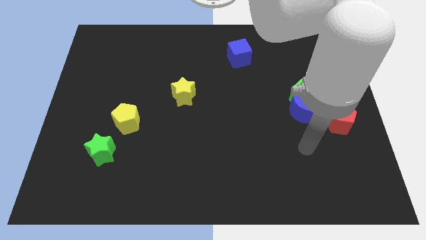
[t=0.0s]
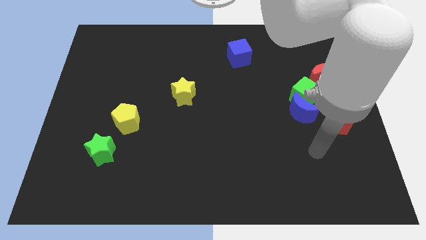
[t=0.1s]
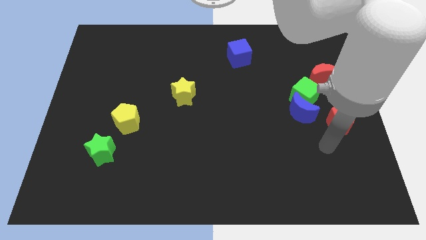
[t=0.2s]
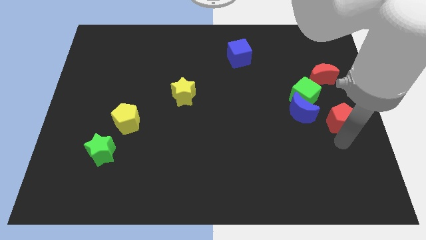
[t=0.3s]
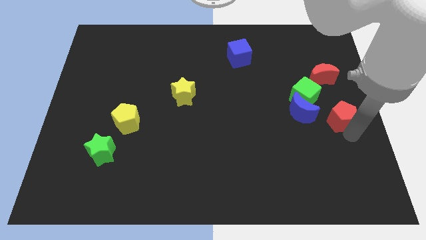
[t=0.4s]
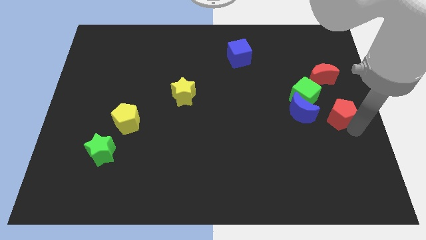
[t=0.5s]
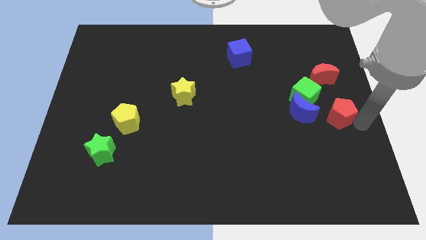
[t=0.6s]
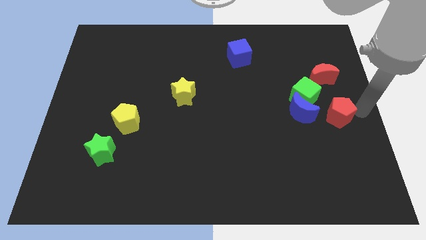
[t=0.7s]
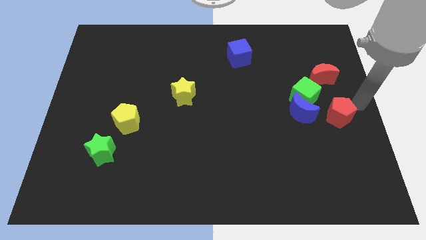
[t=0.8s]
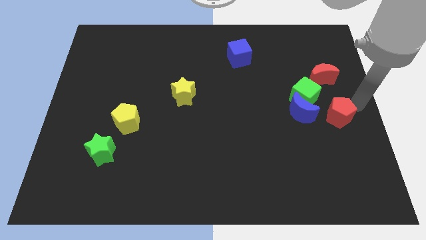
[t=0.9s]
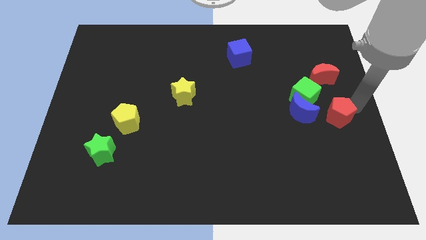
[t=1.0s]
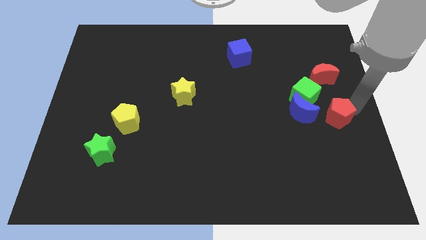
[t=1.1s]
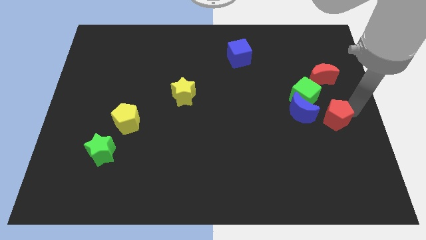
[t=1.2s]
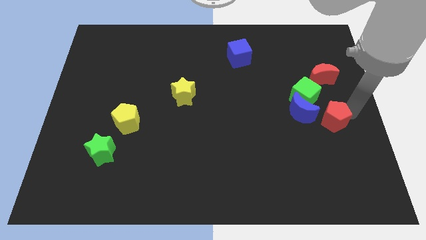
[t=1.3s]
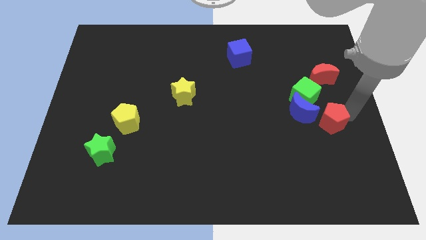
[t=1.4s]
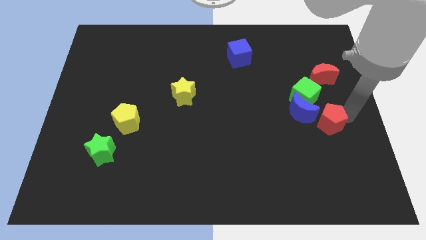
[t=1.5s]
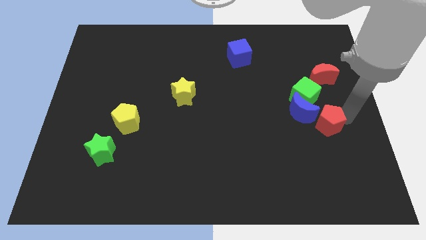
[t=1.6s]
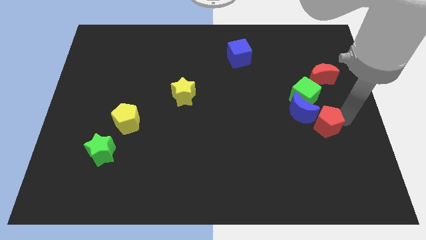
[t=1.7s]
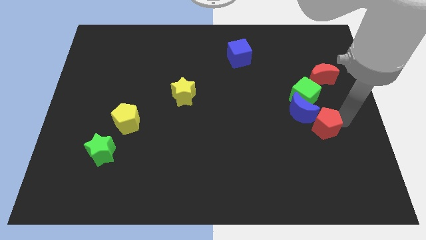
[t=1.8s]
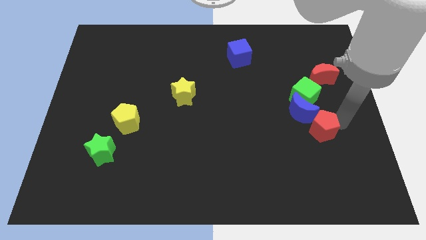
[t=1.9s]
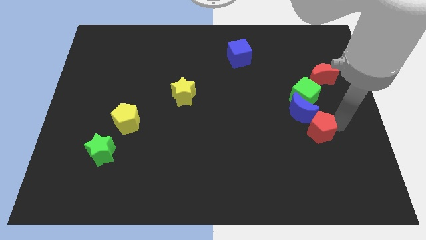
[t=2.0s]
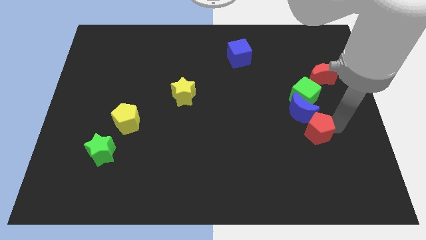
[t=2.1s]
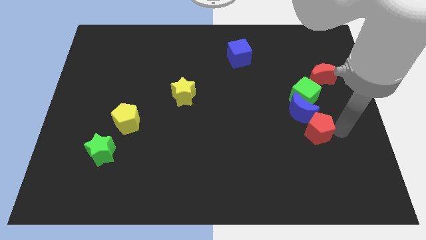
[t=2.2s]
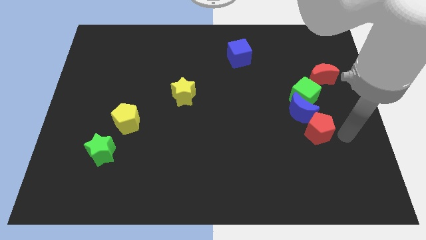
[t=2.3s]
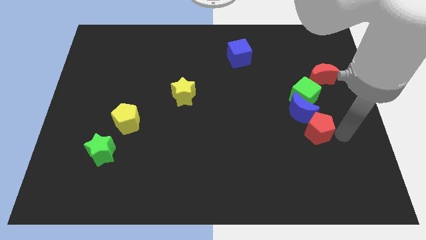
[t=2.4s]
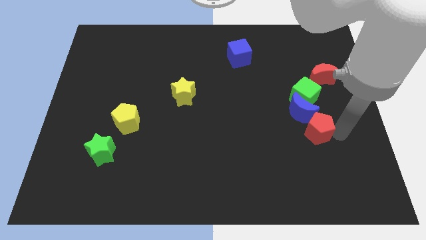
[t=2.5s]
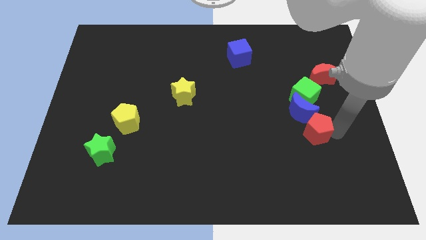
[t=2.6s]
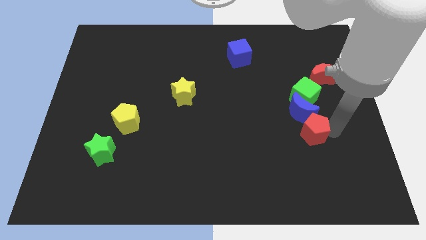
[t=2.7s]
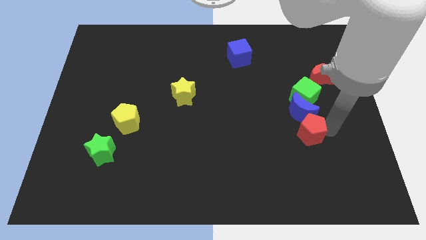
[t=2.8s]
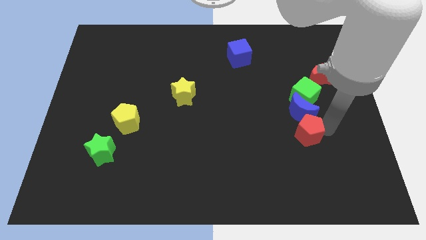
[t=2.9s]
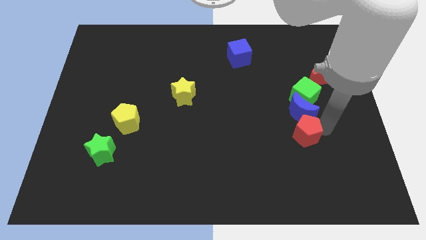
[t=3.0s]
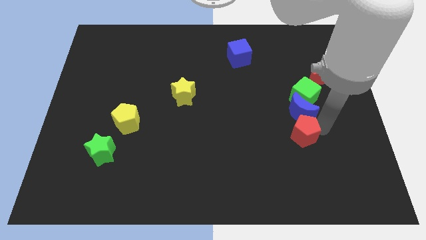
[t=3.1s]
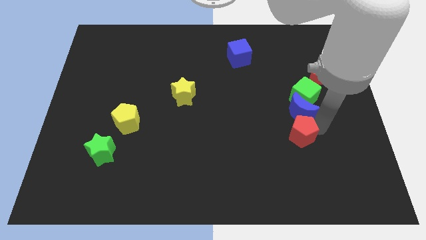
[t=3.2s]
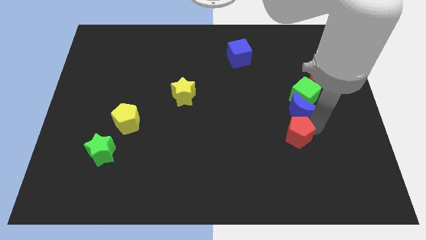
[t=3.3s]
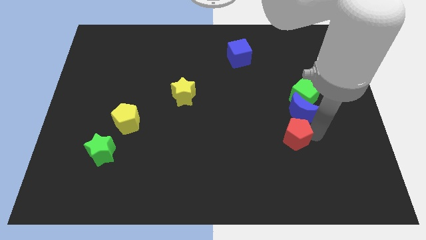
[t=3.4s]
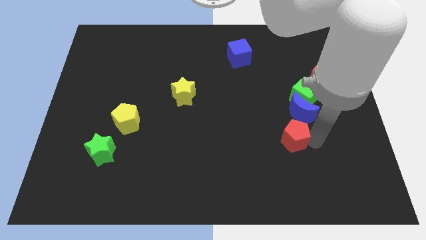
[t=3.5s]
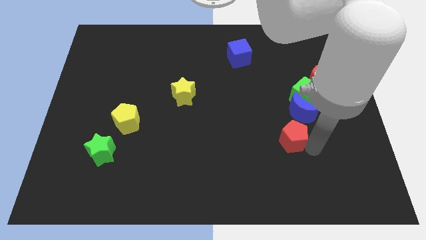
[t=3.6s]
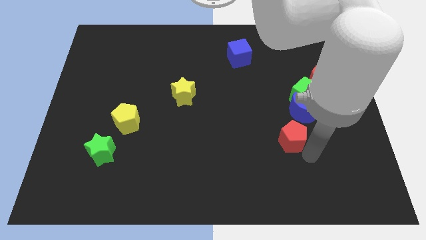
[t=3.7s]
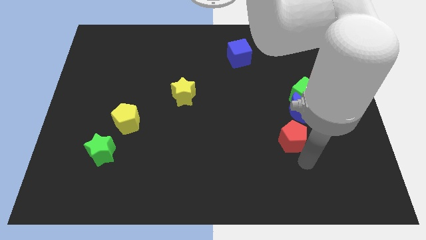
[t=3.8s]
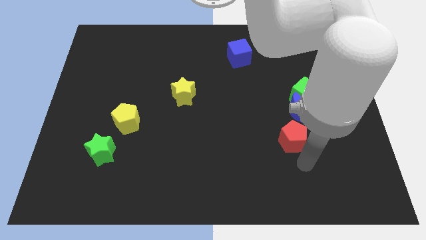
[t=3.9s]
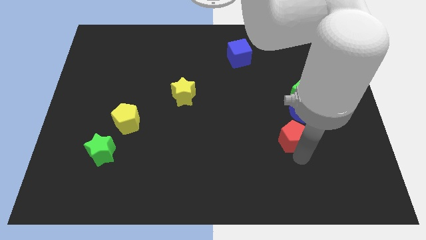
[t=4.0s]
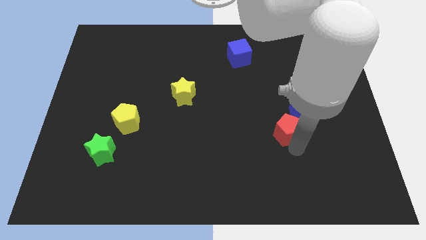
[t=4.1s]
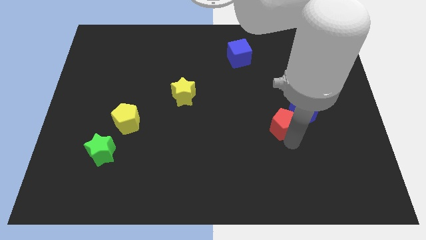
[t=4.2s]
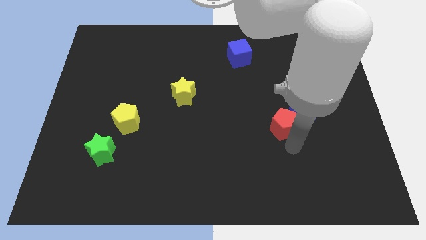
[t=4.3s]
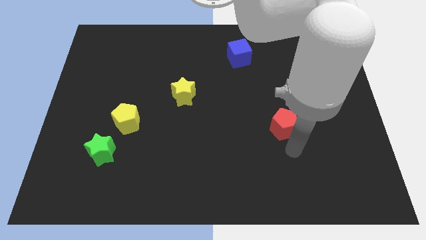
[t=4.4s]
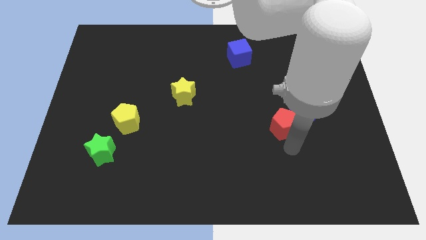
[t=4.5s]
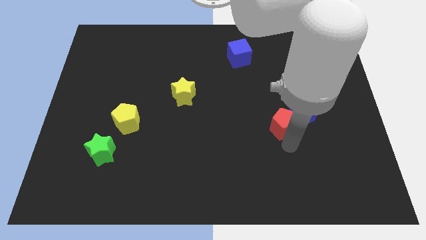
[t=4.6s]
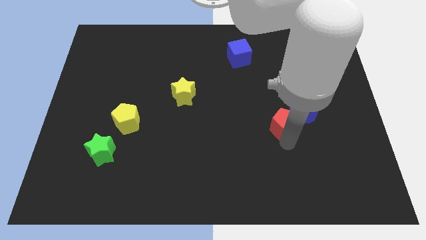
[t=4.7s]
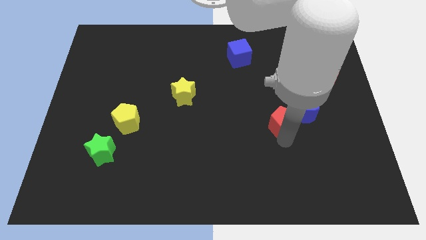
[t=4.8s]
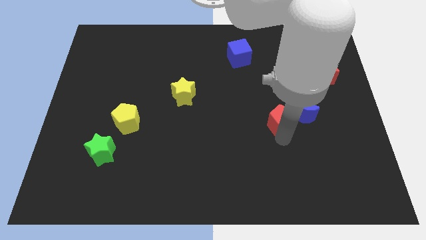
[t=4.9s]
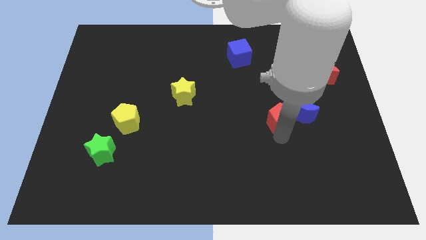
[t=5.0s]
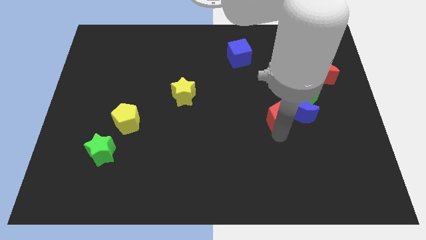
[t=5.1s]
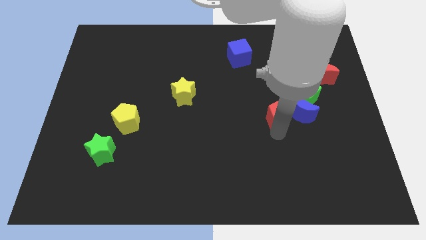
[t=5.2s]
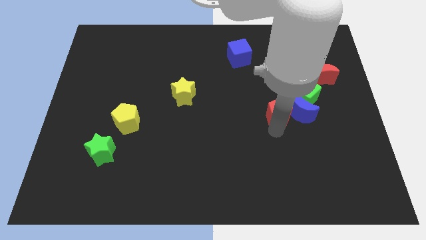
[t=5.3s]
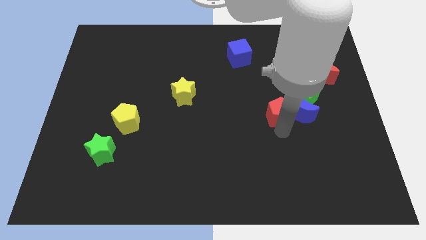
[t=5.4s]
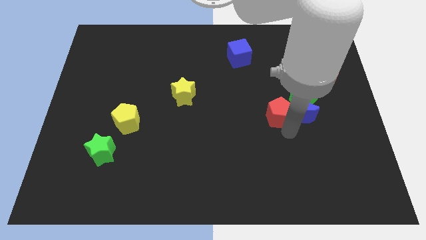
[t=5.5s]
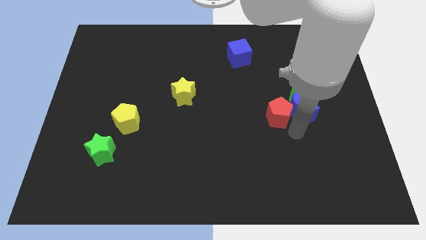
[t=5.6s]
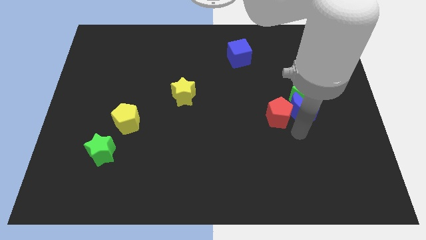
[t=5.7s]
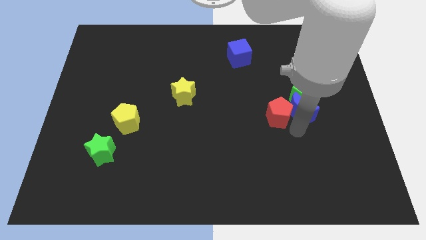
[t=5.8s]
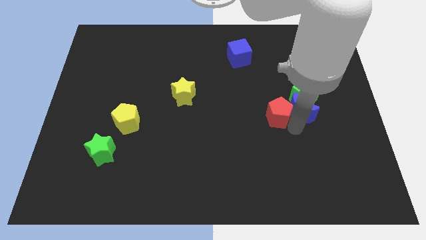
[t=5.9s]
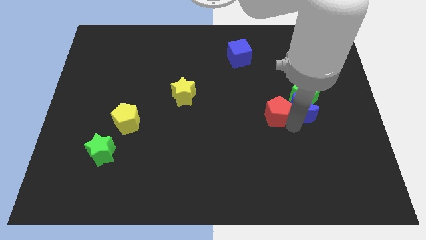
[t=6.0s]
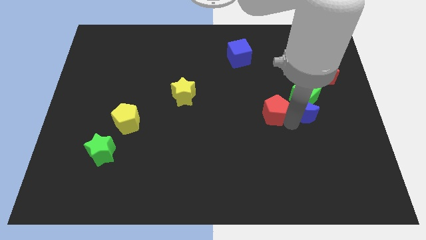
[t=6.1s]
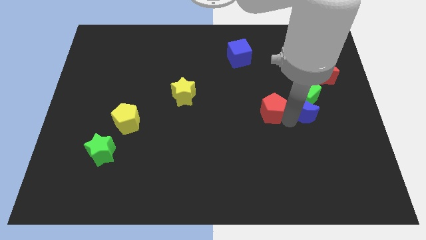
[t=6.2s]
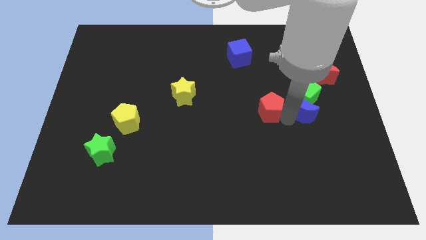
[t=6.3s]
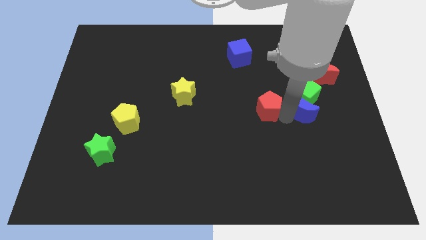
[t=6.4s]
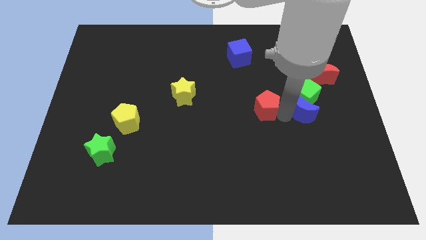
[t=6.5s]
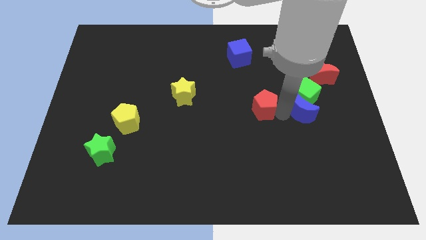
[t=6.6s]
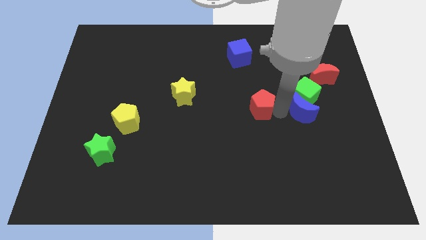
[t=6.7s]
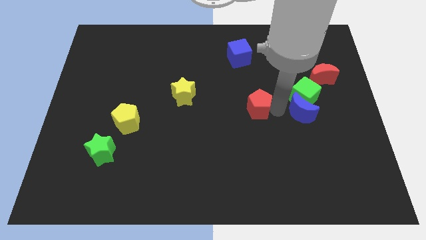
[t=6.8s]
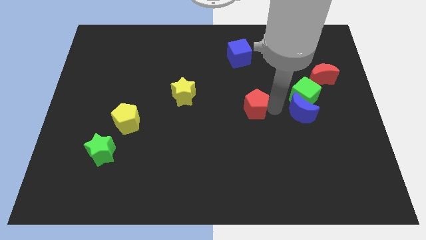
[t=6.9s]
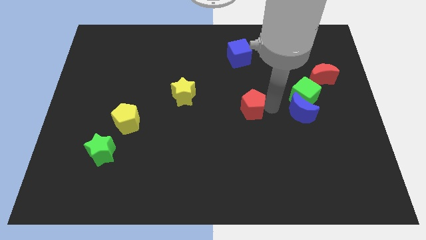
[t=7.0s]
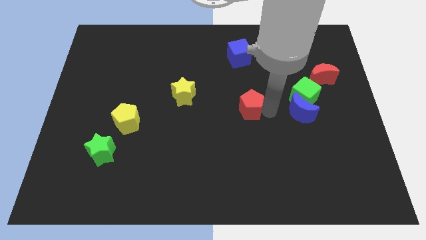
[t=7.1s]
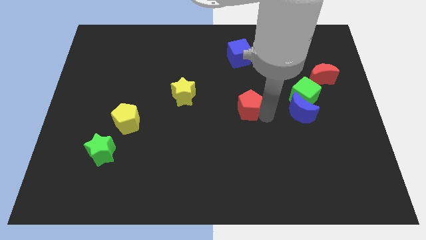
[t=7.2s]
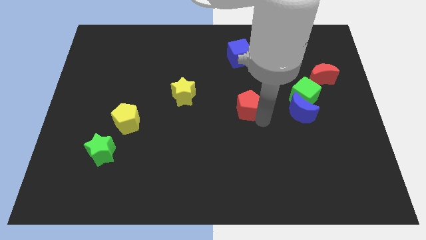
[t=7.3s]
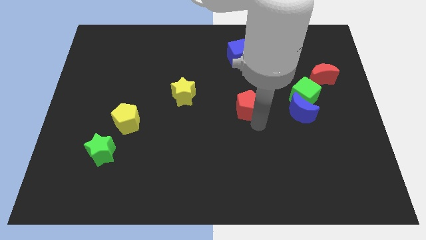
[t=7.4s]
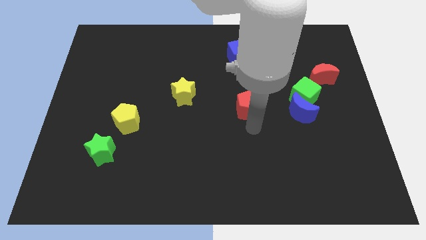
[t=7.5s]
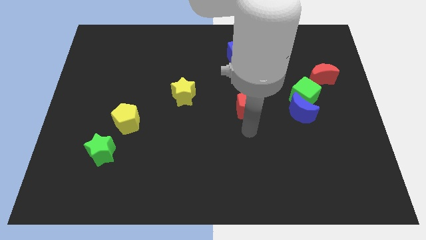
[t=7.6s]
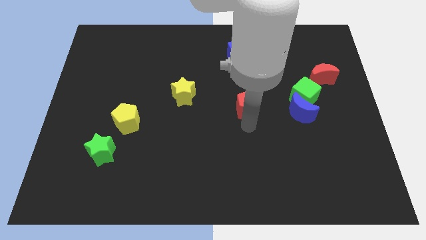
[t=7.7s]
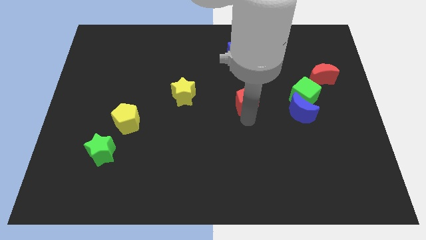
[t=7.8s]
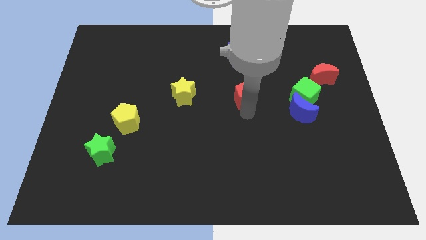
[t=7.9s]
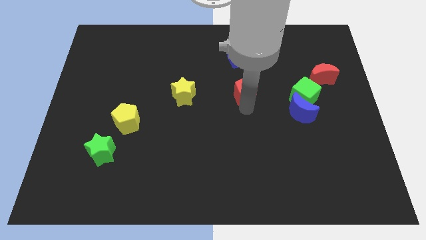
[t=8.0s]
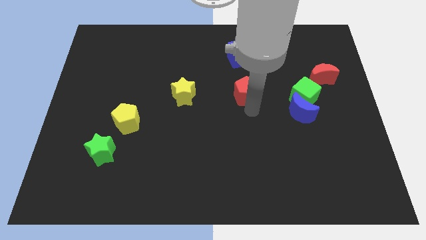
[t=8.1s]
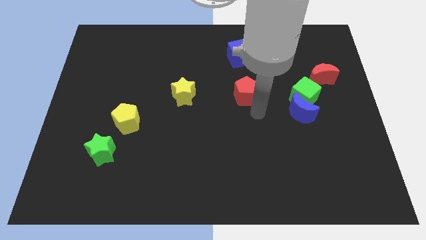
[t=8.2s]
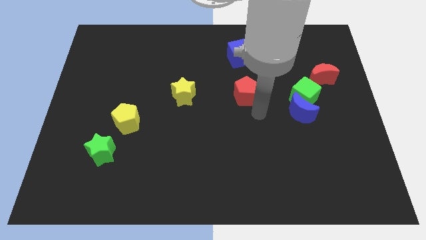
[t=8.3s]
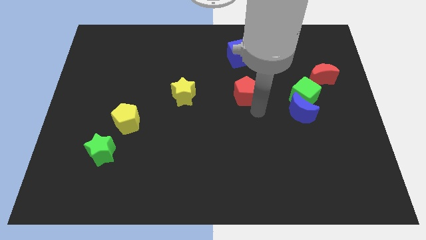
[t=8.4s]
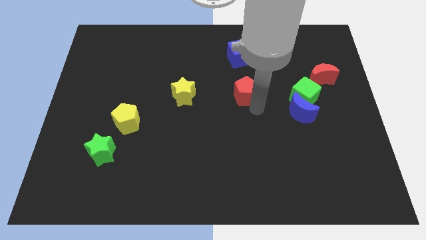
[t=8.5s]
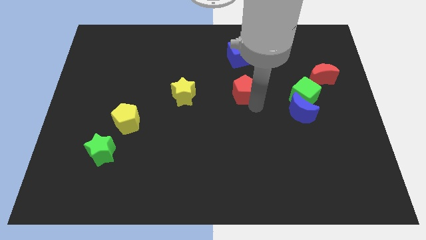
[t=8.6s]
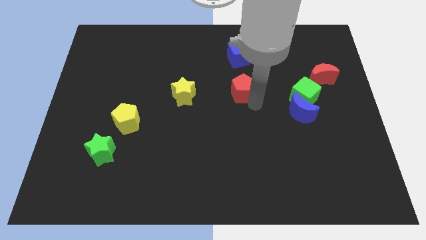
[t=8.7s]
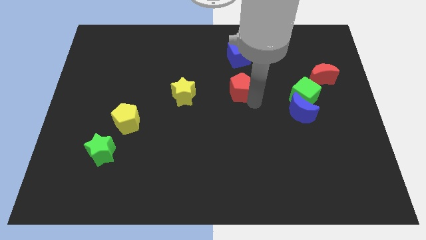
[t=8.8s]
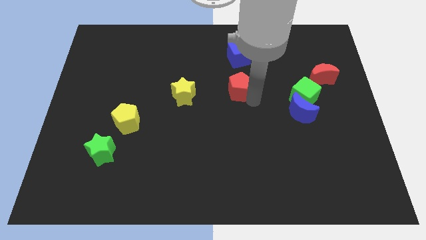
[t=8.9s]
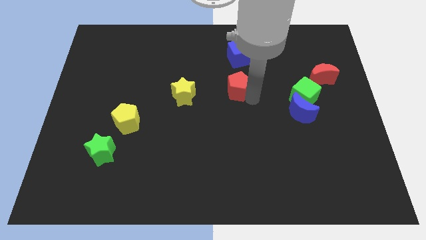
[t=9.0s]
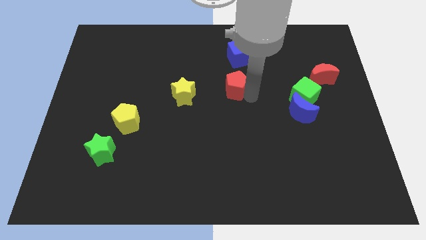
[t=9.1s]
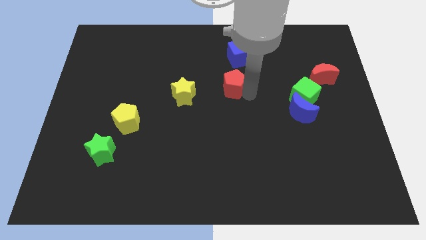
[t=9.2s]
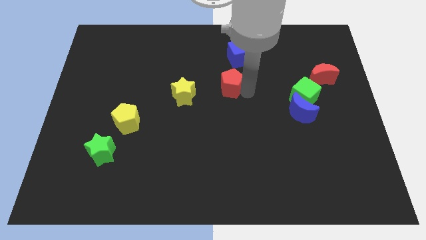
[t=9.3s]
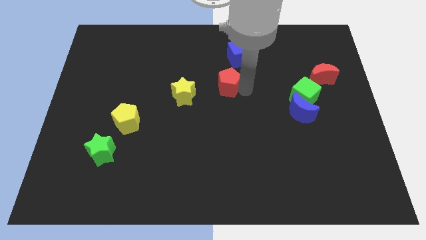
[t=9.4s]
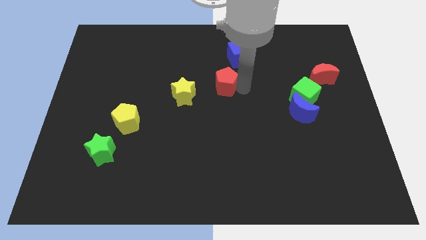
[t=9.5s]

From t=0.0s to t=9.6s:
move the red pentagon to the bottom left side of the blue cube
